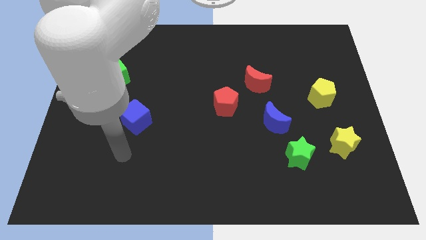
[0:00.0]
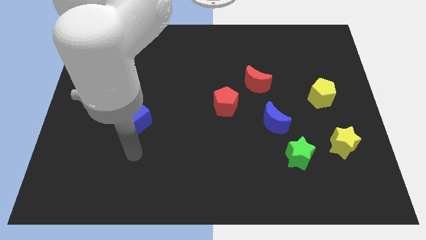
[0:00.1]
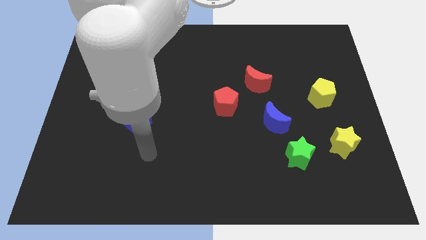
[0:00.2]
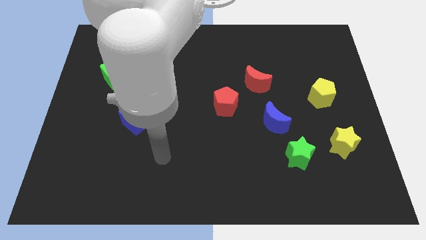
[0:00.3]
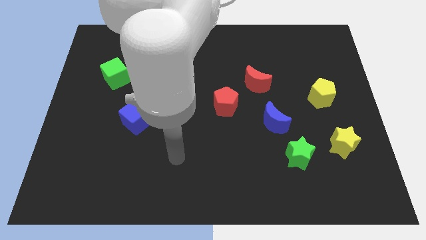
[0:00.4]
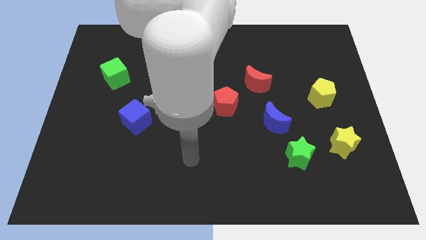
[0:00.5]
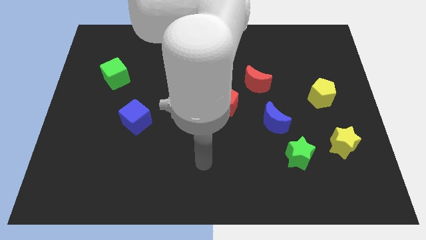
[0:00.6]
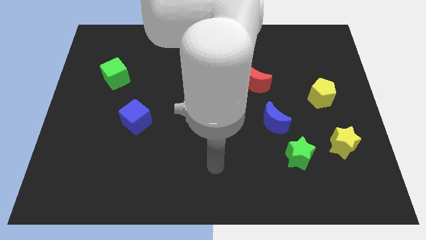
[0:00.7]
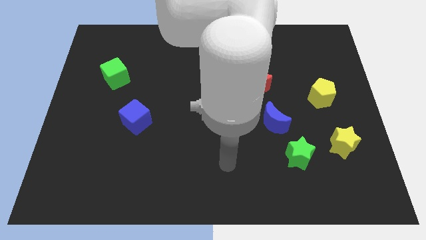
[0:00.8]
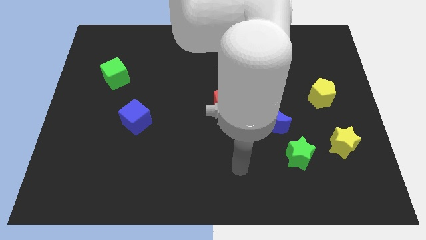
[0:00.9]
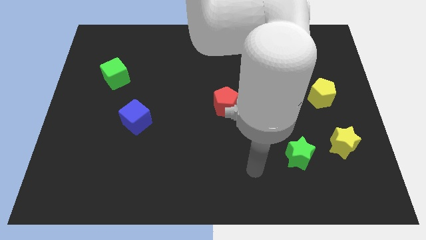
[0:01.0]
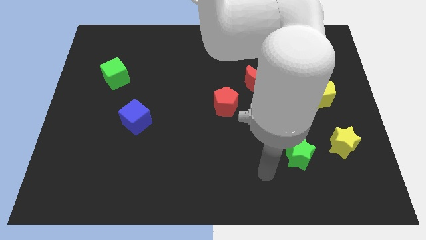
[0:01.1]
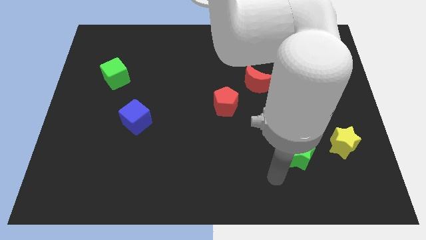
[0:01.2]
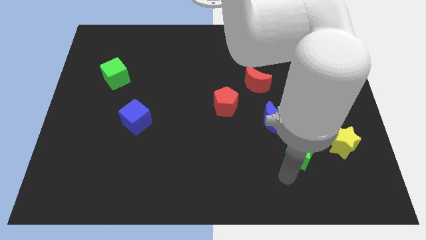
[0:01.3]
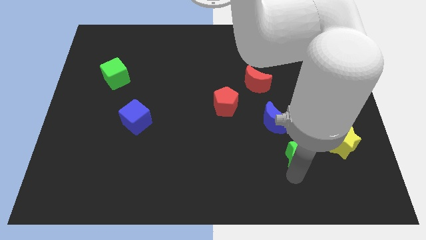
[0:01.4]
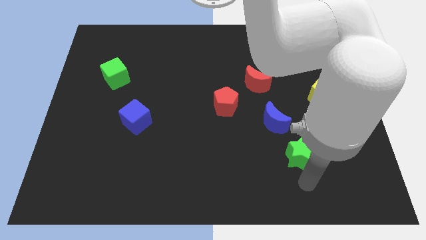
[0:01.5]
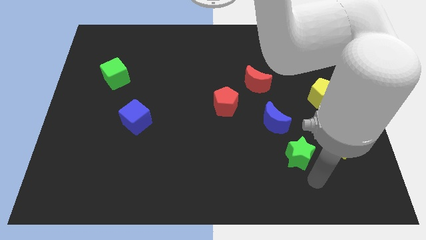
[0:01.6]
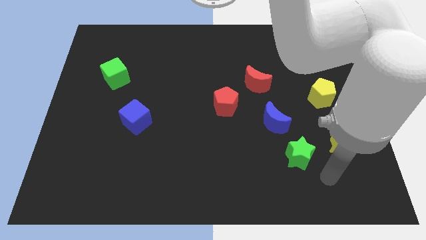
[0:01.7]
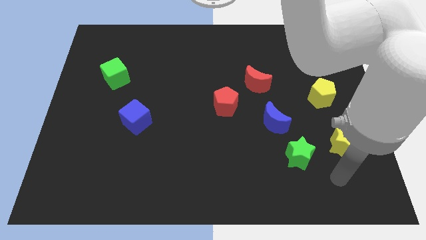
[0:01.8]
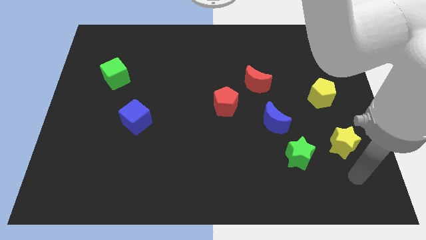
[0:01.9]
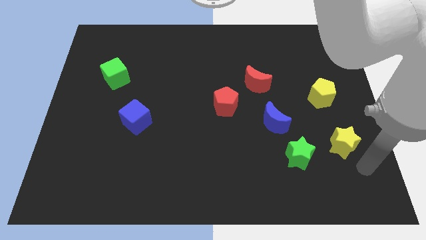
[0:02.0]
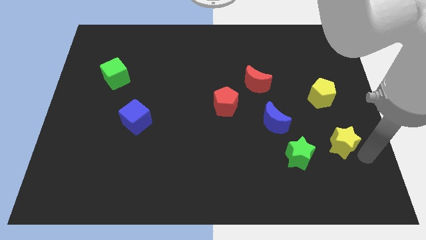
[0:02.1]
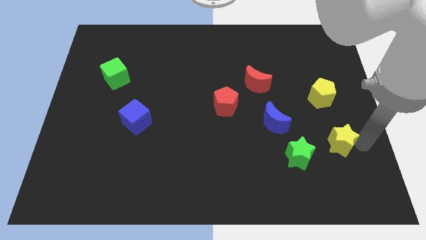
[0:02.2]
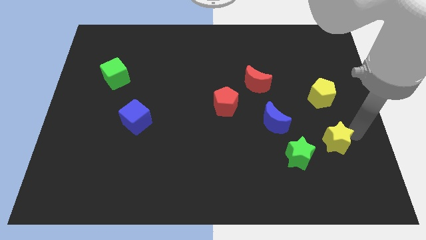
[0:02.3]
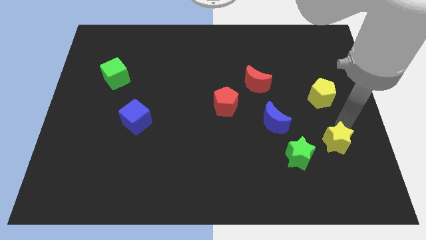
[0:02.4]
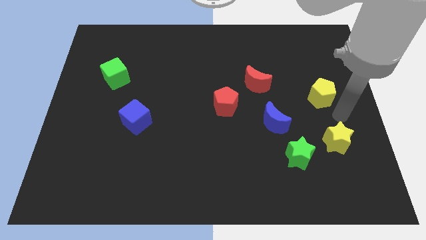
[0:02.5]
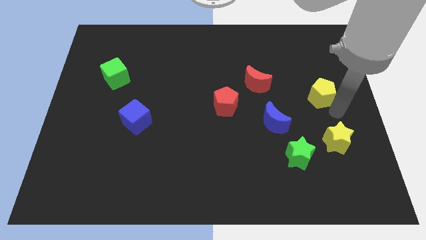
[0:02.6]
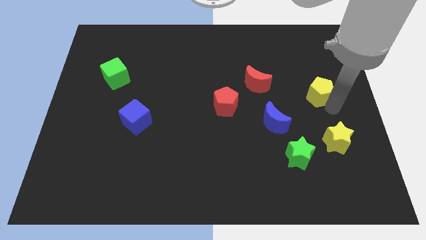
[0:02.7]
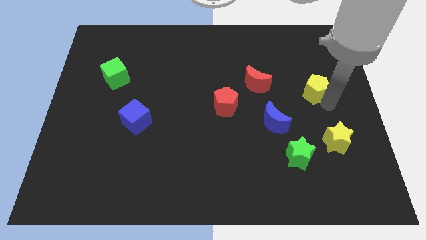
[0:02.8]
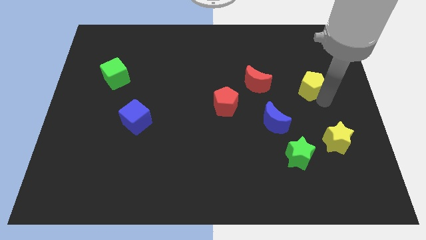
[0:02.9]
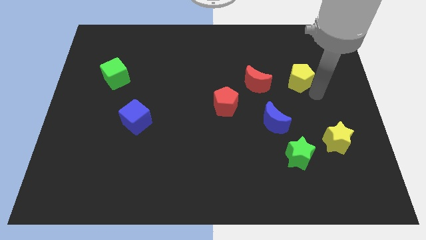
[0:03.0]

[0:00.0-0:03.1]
slide the yellow pentagon a little up and then left

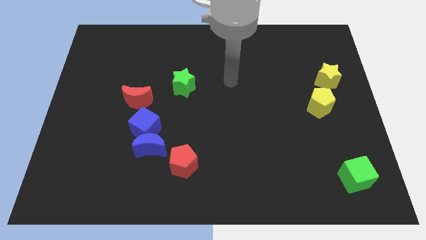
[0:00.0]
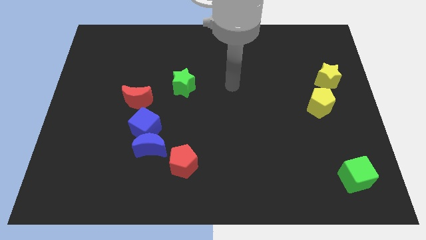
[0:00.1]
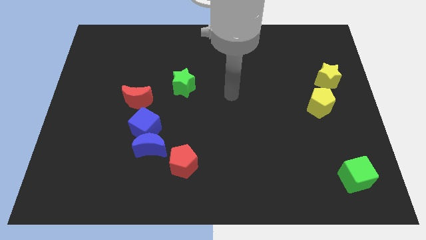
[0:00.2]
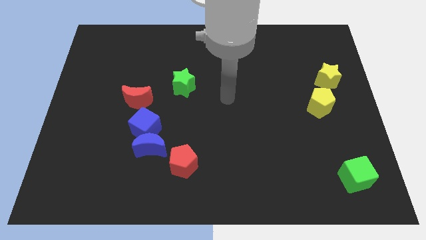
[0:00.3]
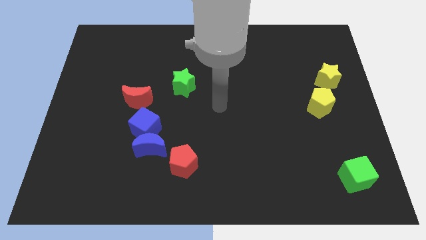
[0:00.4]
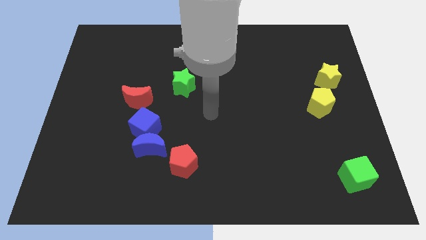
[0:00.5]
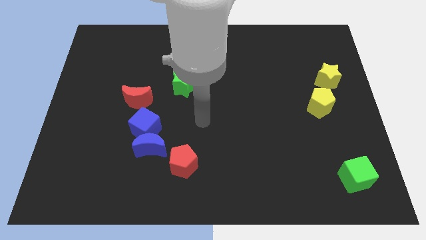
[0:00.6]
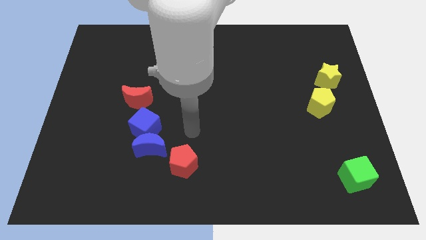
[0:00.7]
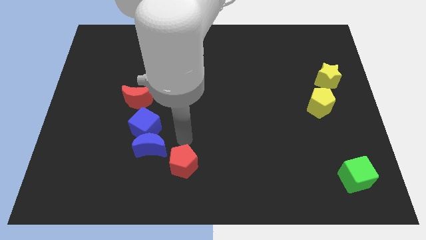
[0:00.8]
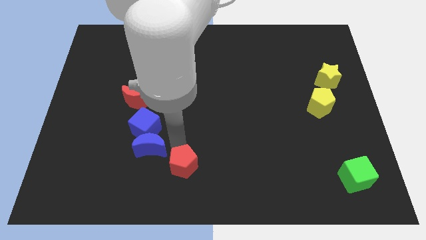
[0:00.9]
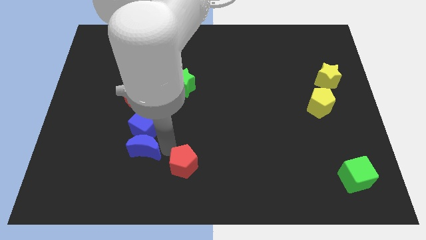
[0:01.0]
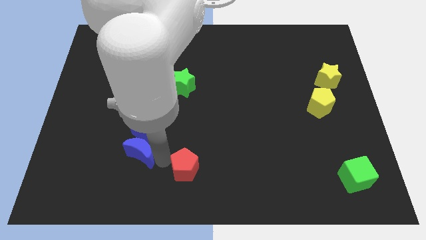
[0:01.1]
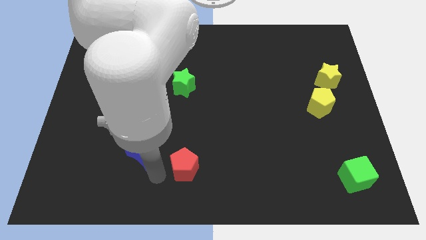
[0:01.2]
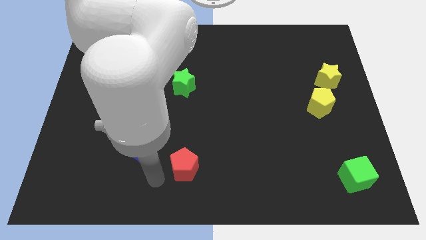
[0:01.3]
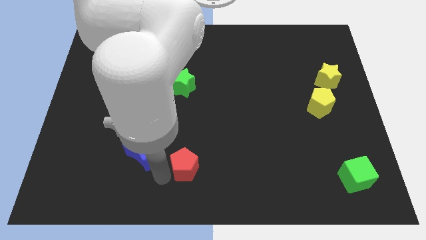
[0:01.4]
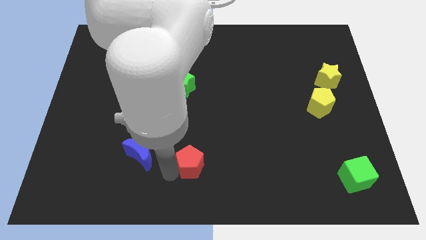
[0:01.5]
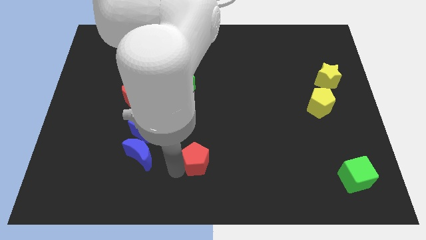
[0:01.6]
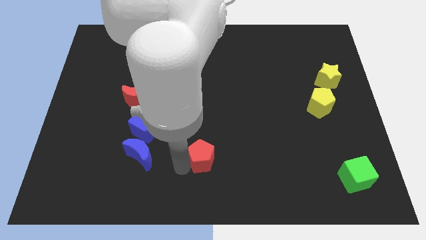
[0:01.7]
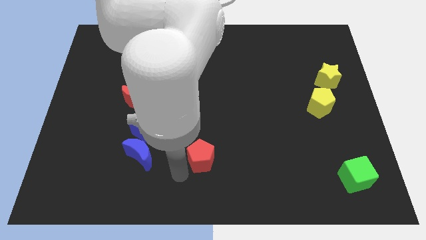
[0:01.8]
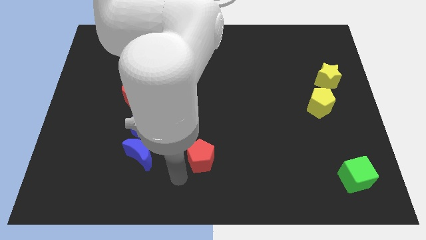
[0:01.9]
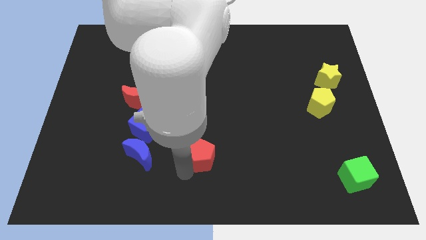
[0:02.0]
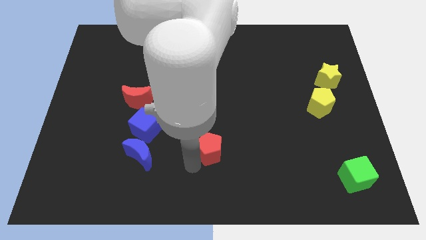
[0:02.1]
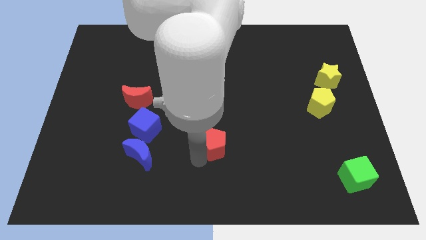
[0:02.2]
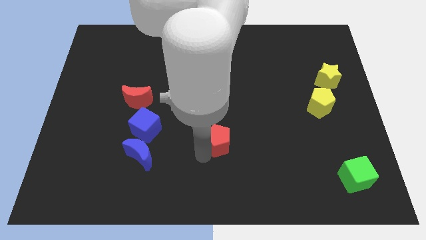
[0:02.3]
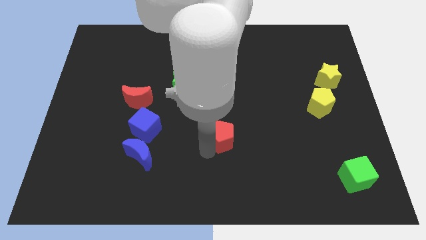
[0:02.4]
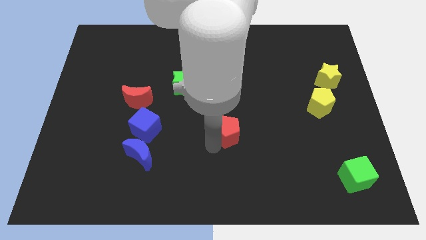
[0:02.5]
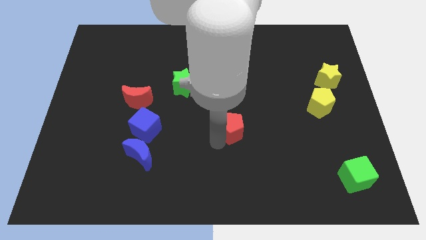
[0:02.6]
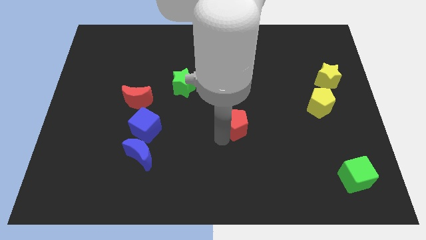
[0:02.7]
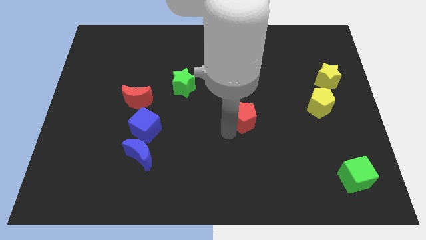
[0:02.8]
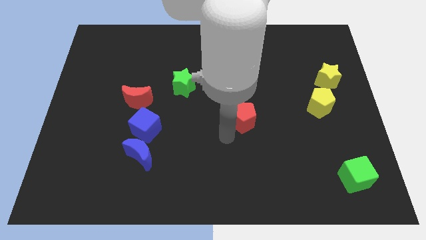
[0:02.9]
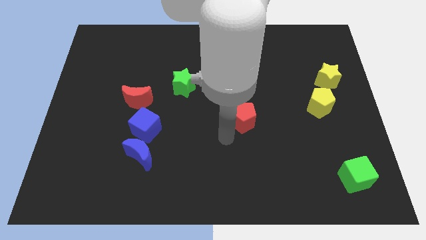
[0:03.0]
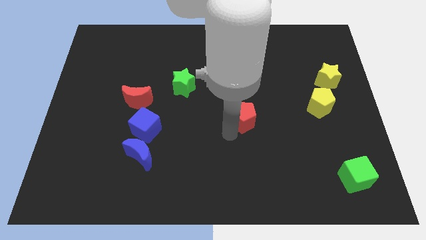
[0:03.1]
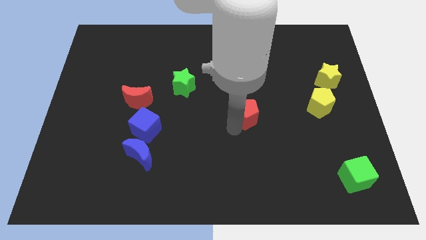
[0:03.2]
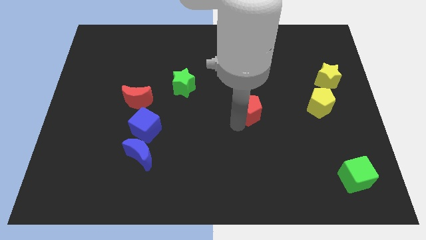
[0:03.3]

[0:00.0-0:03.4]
push the red pentagon up and to the right diagonally

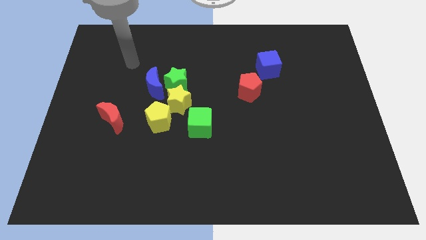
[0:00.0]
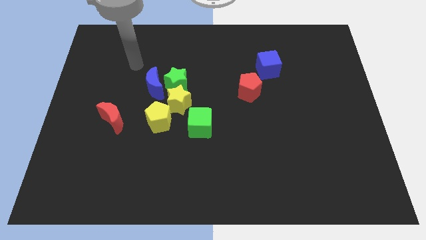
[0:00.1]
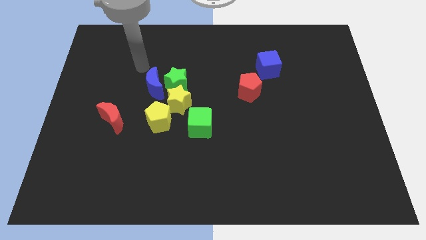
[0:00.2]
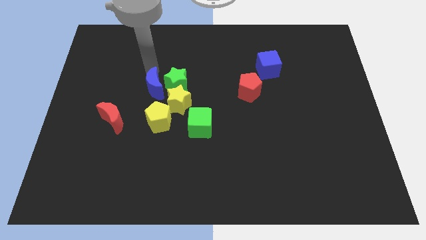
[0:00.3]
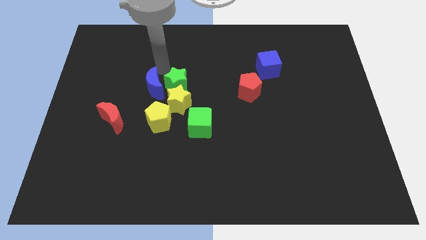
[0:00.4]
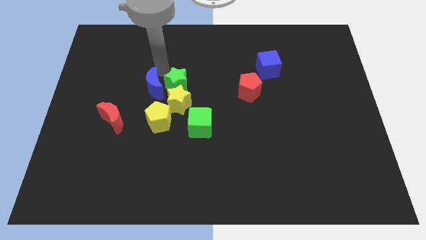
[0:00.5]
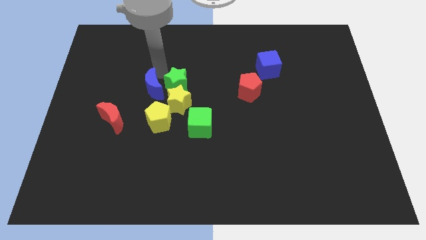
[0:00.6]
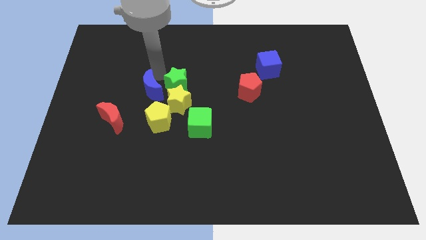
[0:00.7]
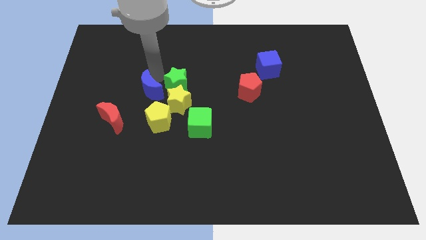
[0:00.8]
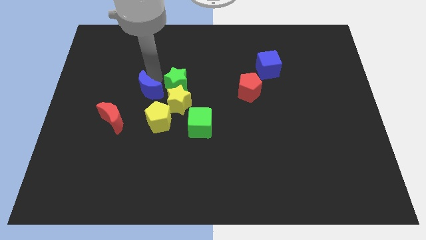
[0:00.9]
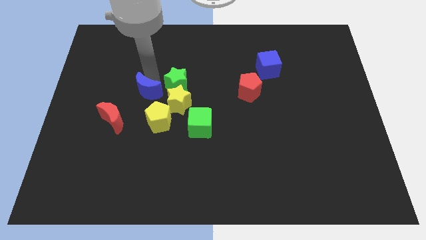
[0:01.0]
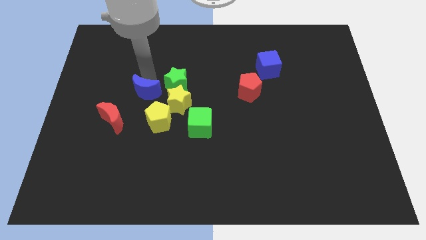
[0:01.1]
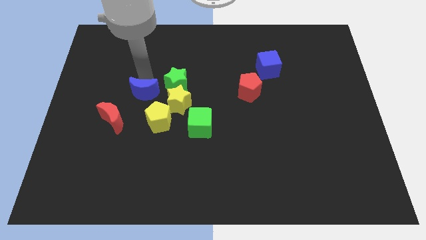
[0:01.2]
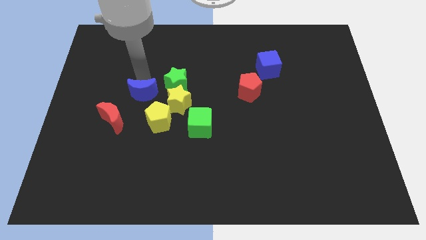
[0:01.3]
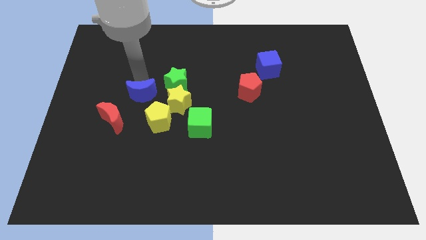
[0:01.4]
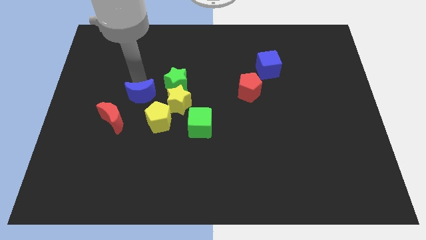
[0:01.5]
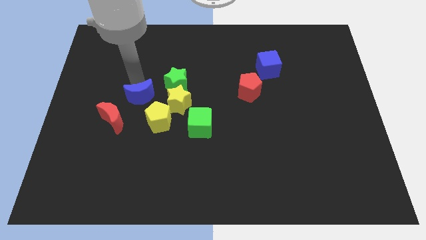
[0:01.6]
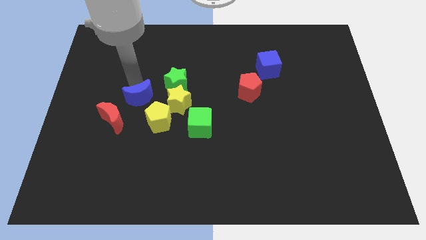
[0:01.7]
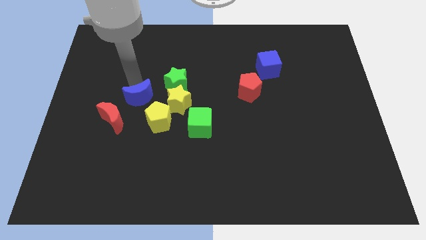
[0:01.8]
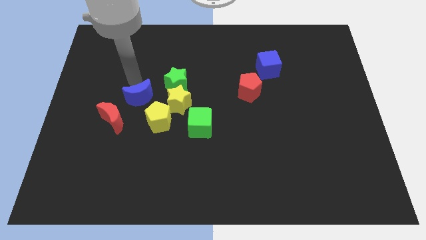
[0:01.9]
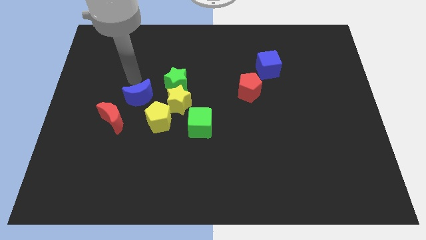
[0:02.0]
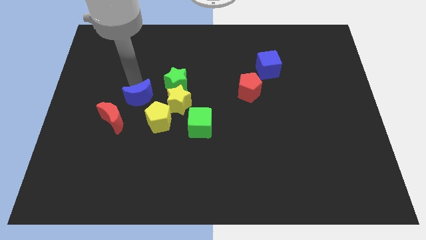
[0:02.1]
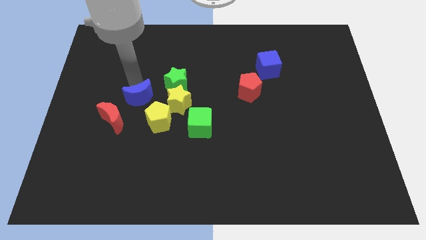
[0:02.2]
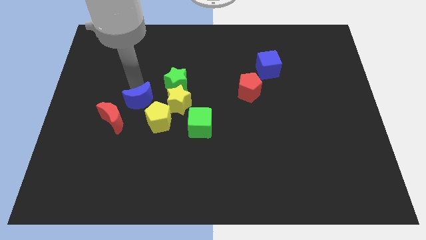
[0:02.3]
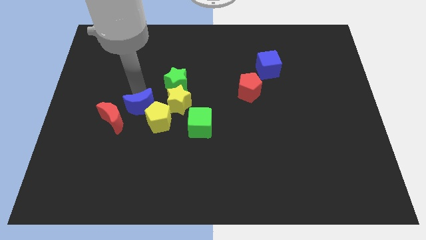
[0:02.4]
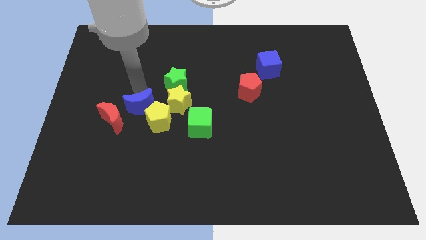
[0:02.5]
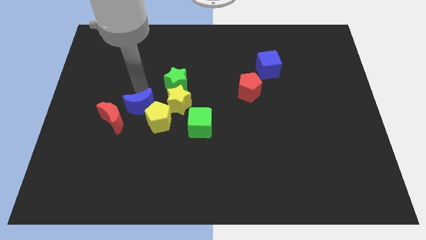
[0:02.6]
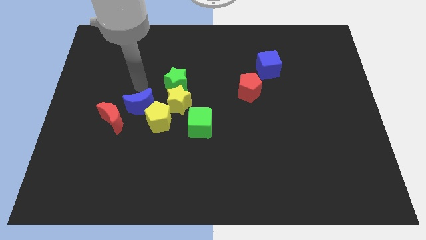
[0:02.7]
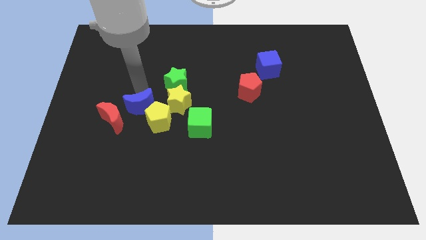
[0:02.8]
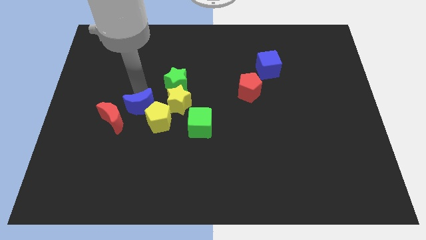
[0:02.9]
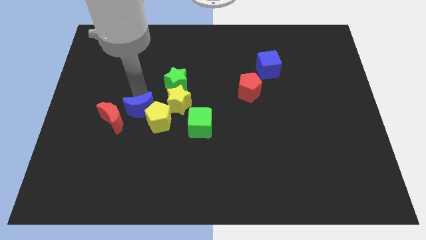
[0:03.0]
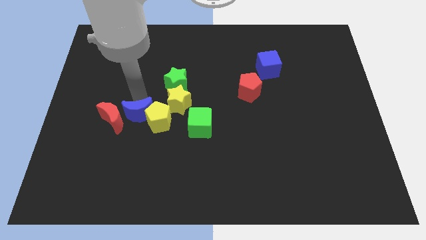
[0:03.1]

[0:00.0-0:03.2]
slide the blue moon down a bit
